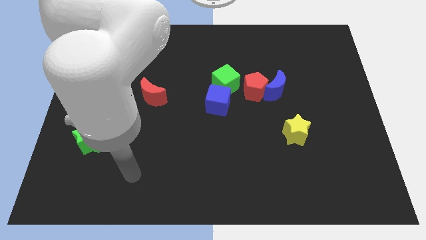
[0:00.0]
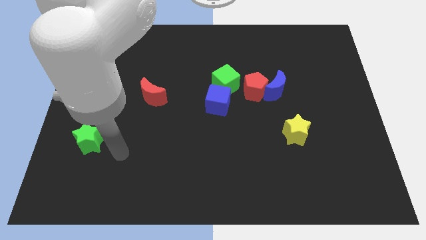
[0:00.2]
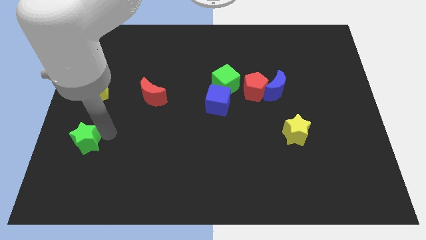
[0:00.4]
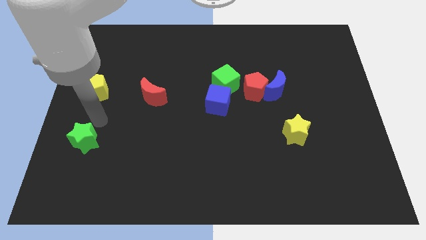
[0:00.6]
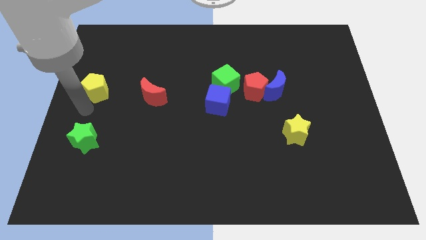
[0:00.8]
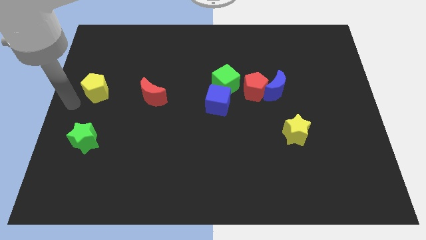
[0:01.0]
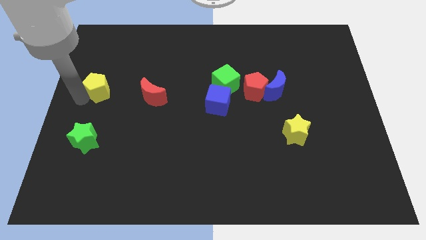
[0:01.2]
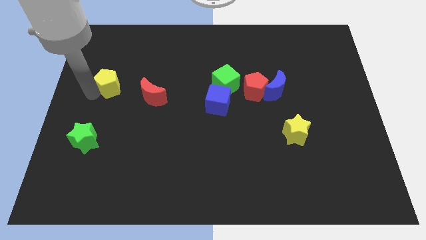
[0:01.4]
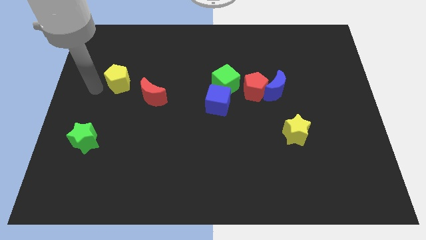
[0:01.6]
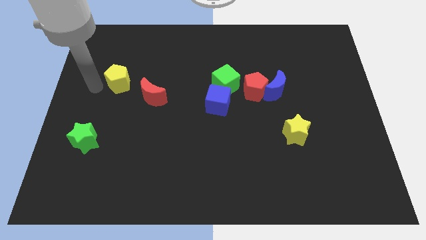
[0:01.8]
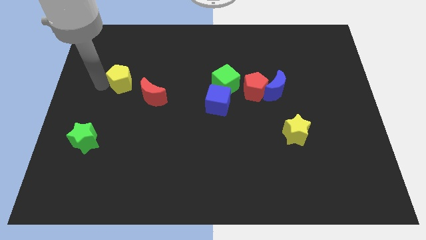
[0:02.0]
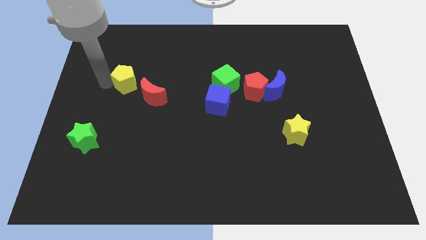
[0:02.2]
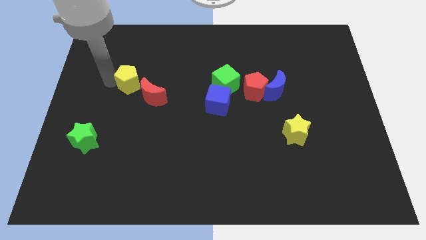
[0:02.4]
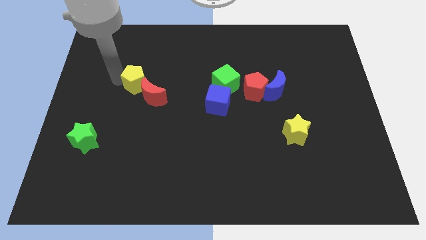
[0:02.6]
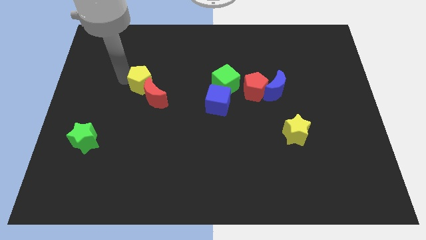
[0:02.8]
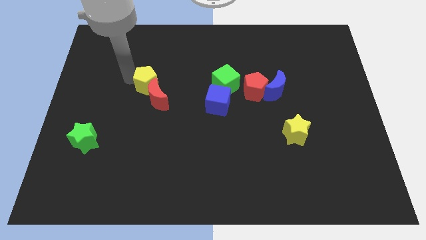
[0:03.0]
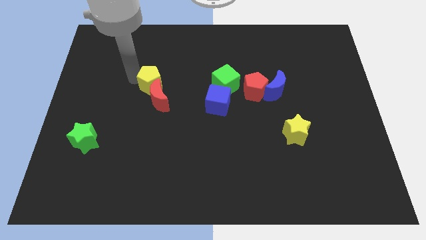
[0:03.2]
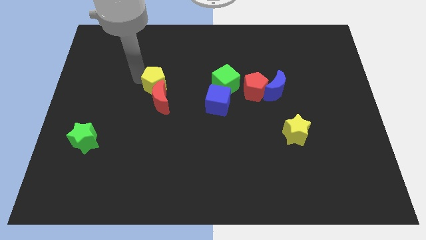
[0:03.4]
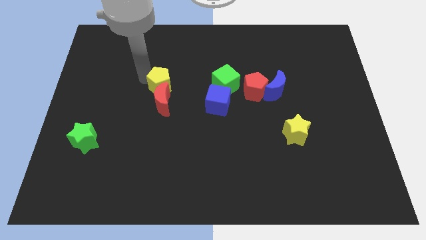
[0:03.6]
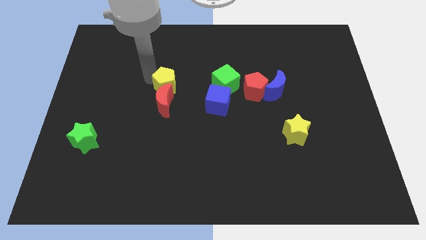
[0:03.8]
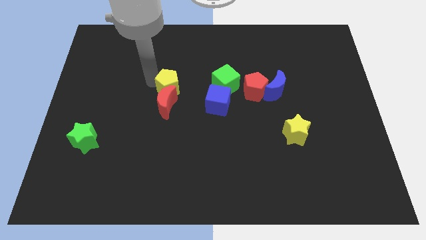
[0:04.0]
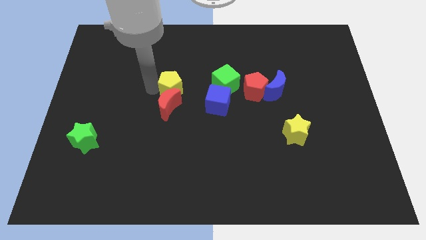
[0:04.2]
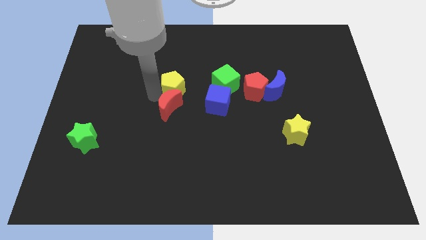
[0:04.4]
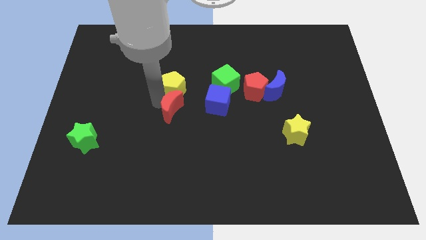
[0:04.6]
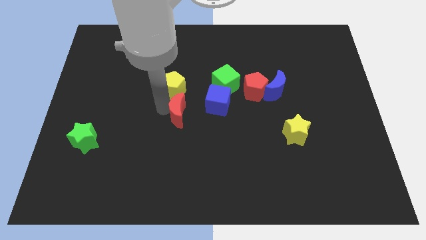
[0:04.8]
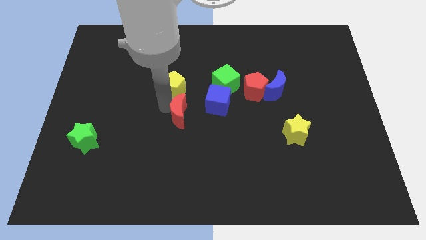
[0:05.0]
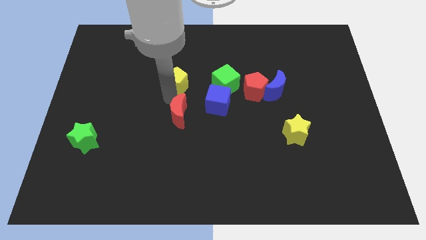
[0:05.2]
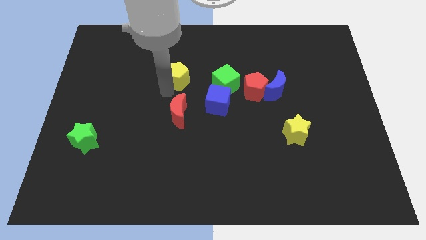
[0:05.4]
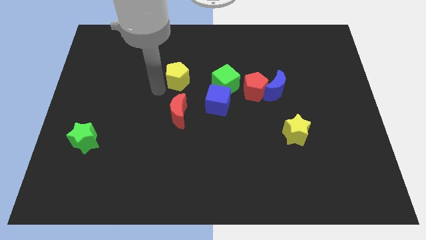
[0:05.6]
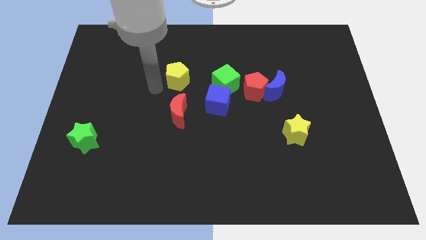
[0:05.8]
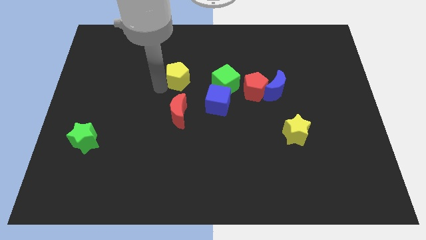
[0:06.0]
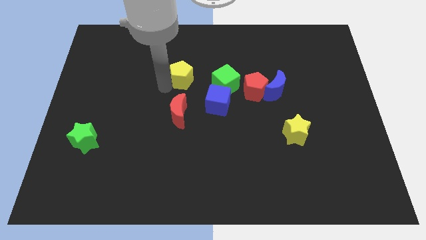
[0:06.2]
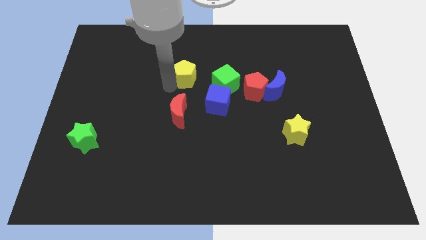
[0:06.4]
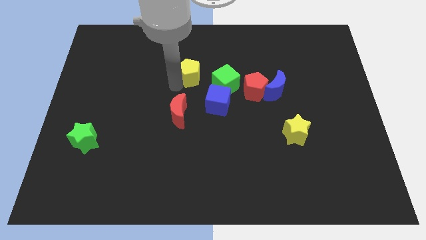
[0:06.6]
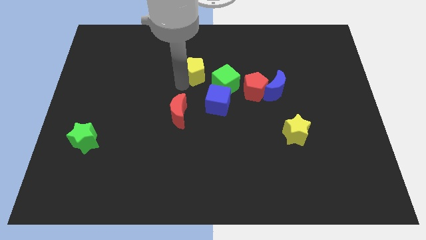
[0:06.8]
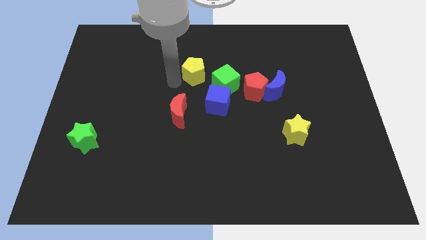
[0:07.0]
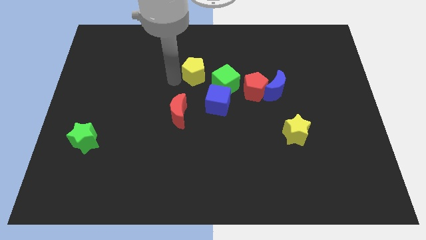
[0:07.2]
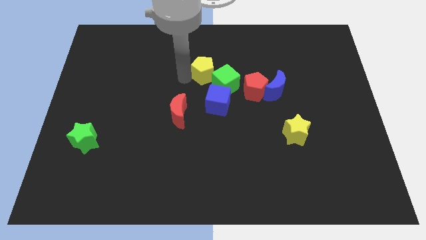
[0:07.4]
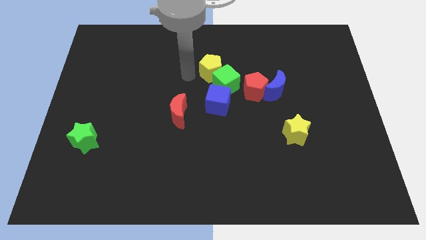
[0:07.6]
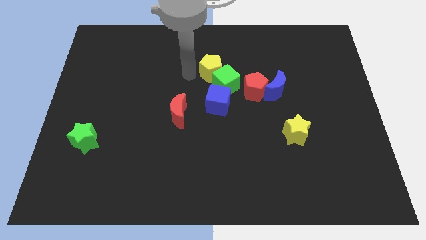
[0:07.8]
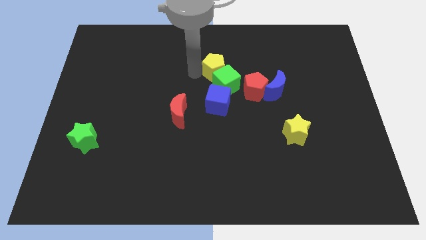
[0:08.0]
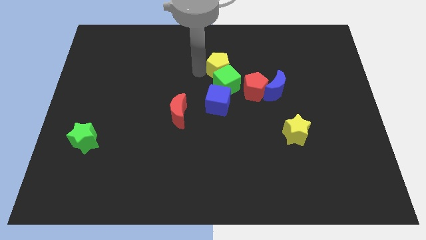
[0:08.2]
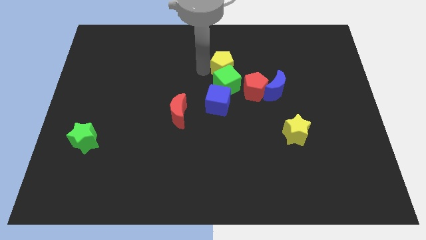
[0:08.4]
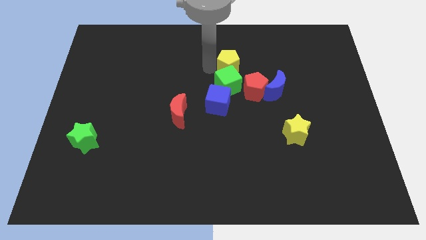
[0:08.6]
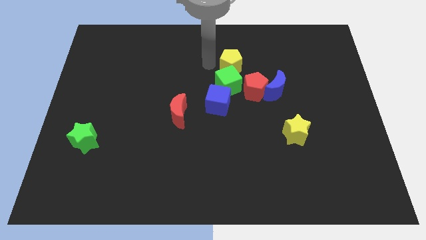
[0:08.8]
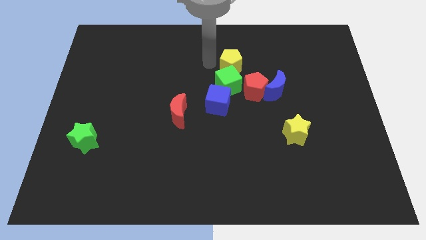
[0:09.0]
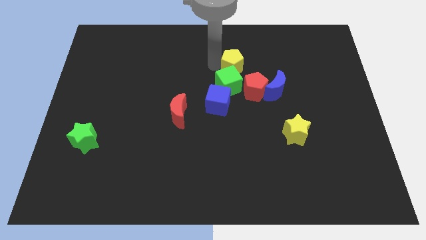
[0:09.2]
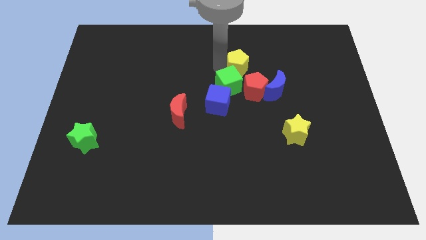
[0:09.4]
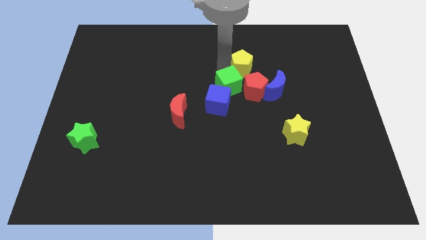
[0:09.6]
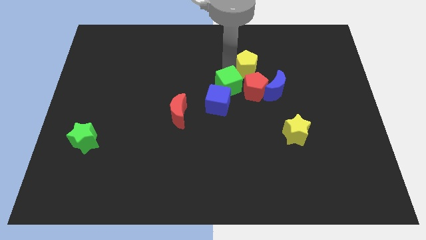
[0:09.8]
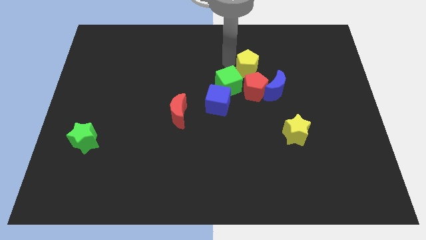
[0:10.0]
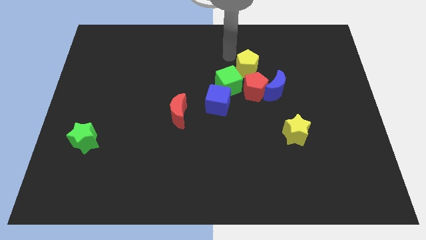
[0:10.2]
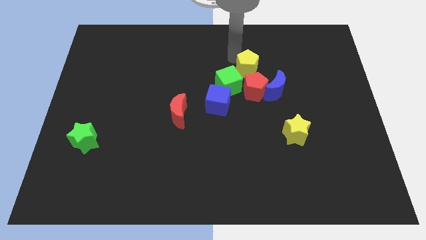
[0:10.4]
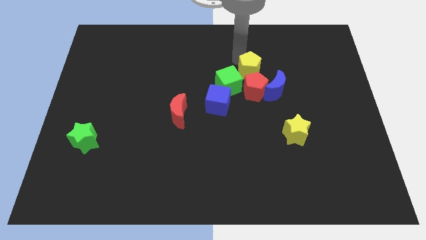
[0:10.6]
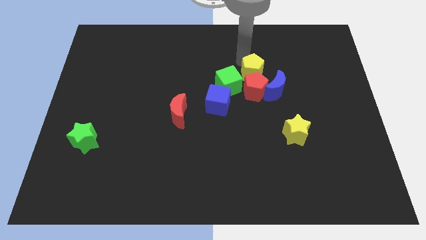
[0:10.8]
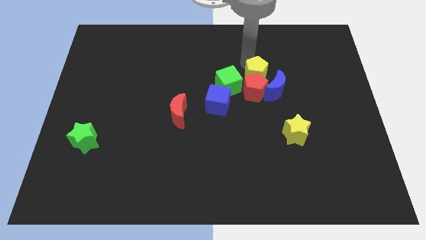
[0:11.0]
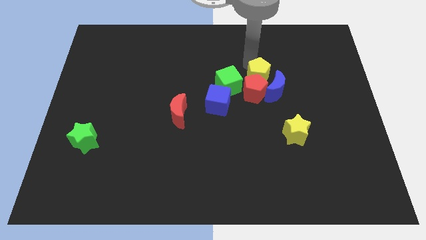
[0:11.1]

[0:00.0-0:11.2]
push the yellow pentagon close to the blue moon

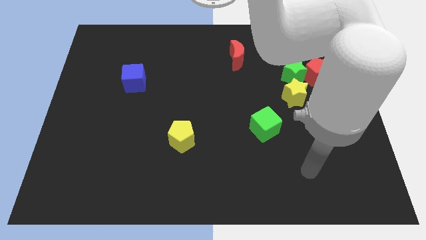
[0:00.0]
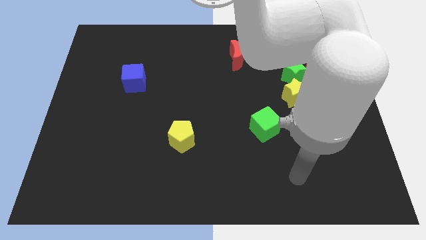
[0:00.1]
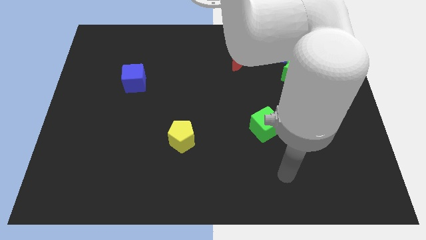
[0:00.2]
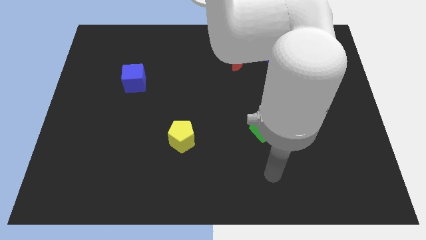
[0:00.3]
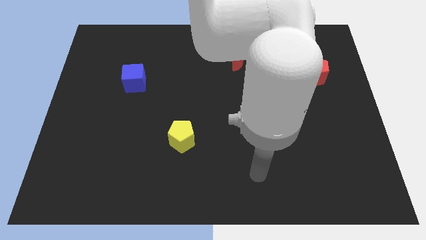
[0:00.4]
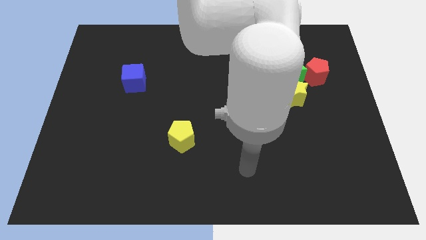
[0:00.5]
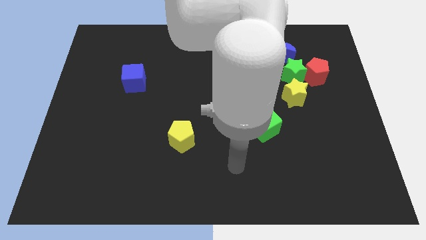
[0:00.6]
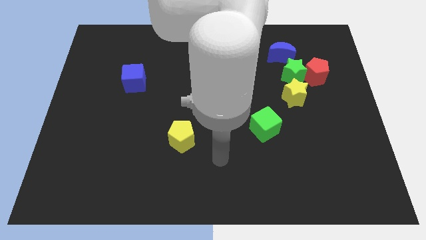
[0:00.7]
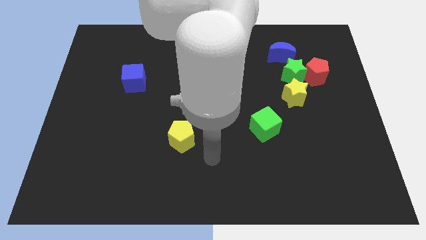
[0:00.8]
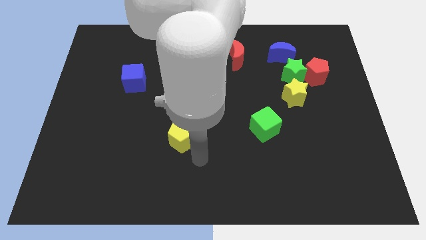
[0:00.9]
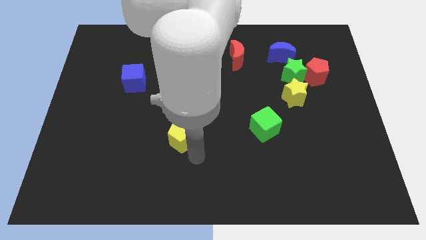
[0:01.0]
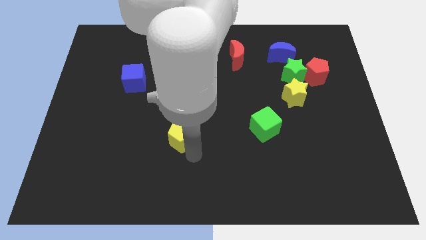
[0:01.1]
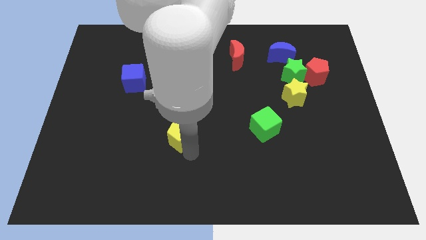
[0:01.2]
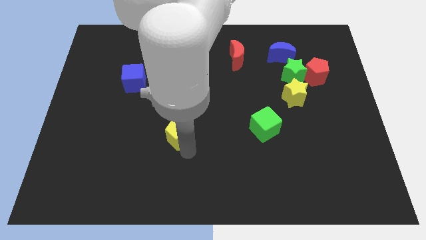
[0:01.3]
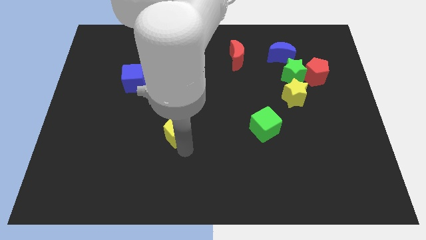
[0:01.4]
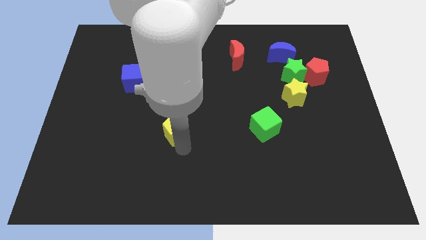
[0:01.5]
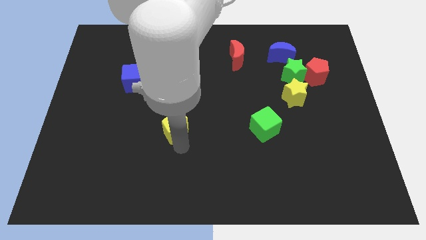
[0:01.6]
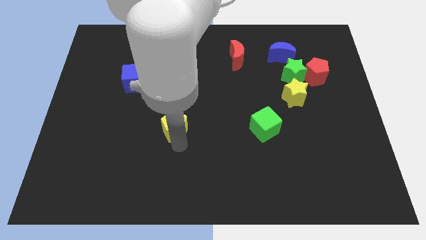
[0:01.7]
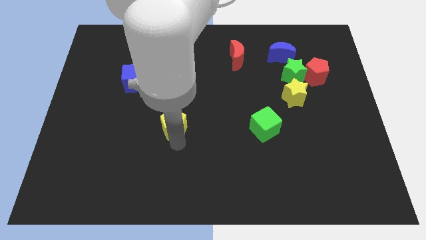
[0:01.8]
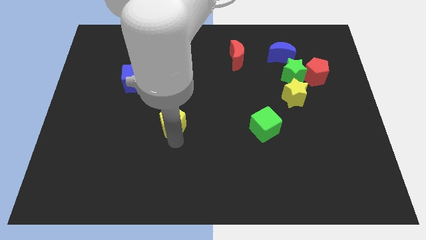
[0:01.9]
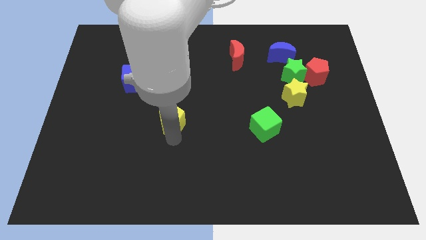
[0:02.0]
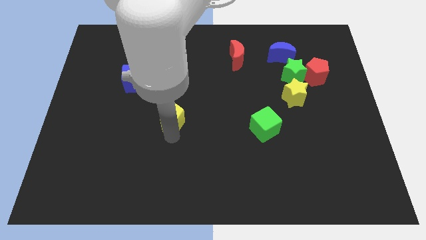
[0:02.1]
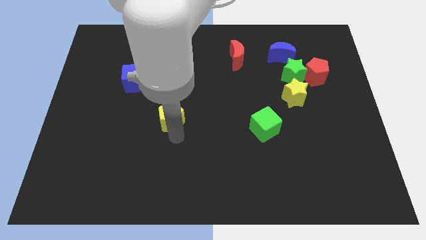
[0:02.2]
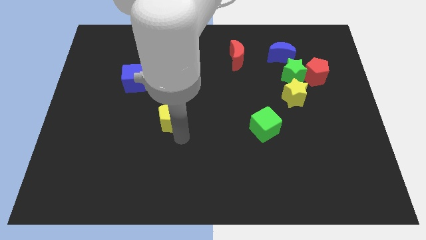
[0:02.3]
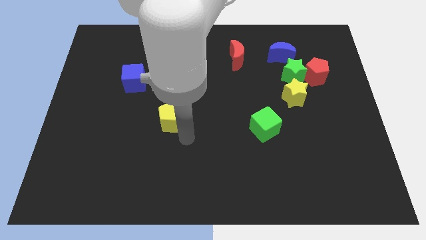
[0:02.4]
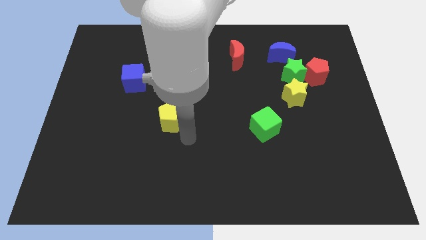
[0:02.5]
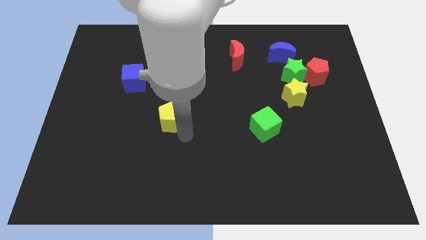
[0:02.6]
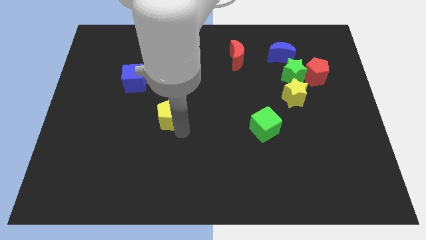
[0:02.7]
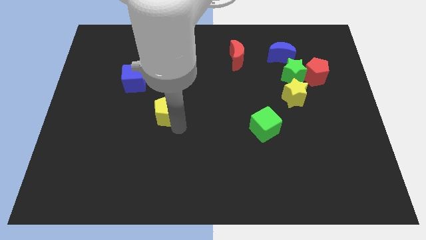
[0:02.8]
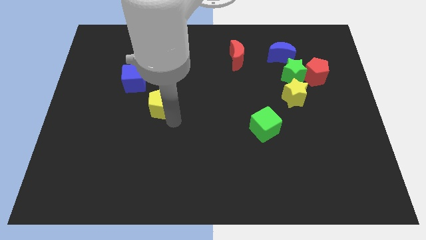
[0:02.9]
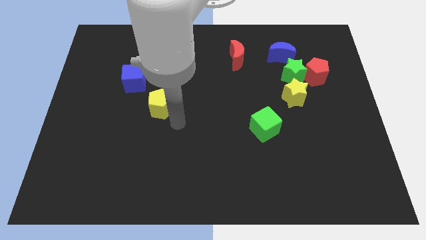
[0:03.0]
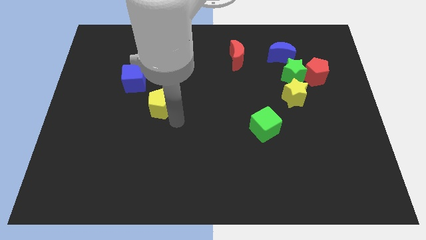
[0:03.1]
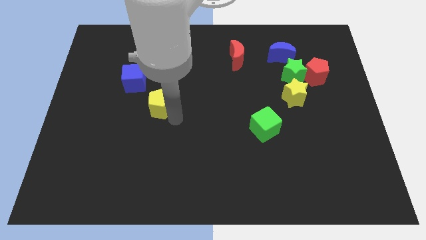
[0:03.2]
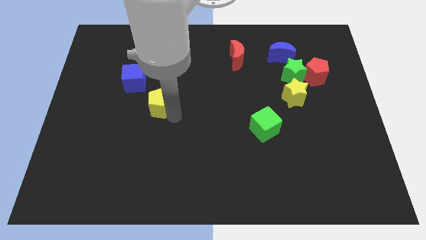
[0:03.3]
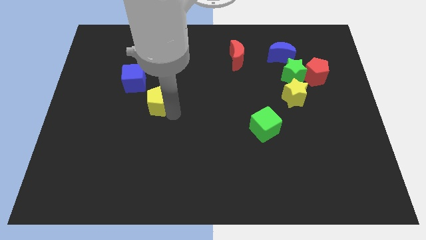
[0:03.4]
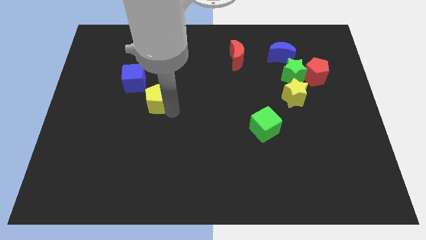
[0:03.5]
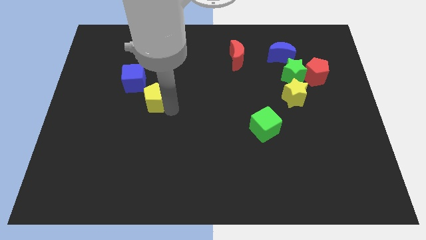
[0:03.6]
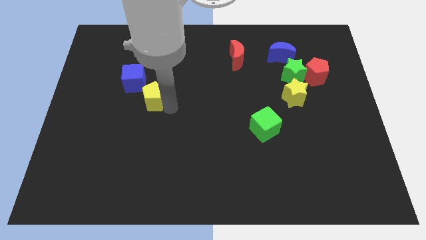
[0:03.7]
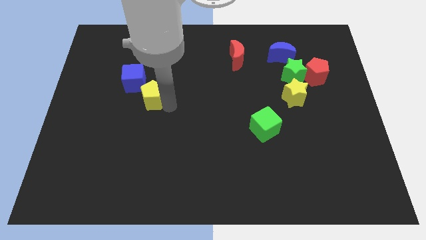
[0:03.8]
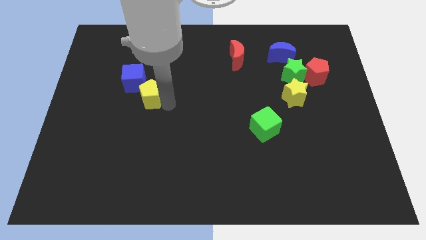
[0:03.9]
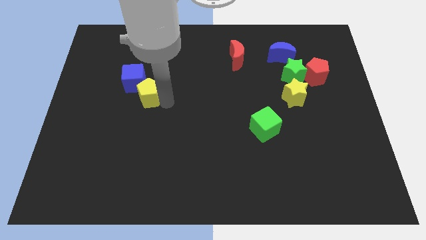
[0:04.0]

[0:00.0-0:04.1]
put the yellow pentagon to the blue cube
